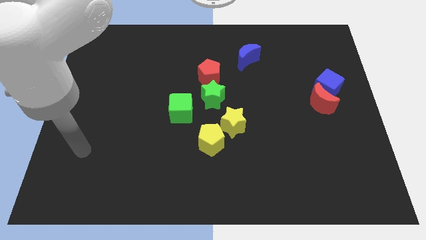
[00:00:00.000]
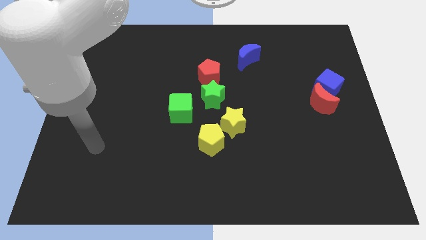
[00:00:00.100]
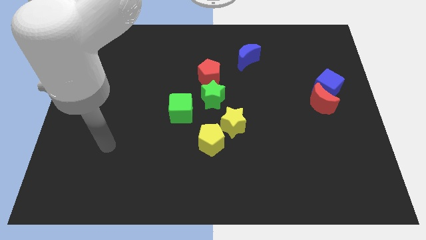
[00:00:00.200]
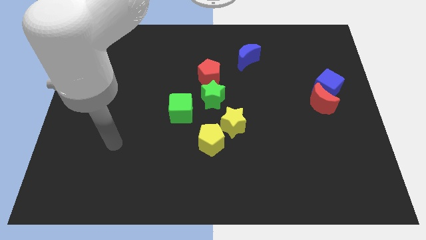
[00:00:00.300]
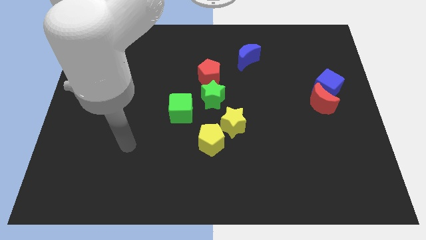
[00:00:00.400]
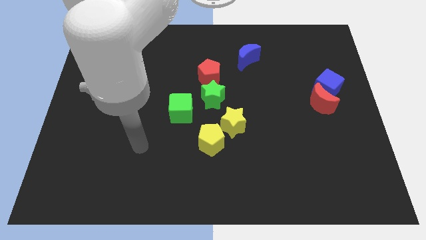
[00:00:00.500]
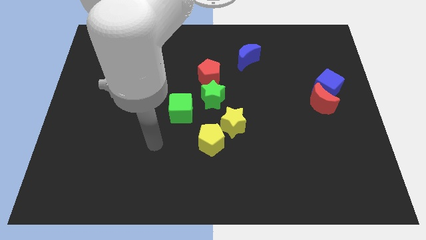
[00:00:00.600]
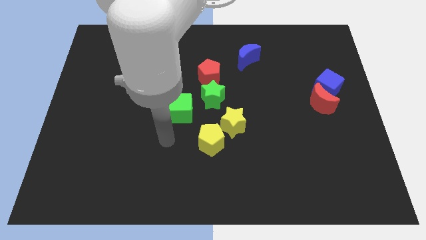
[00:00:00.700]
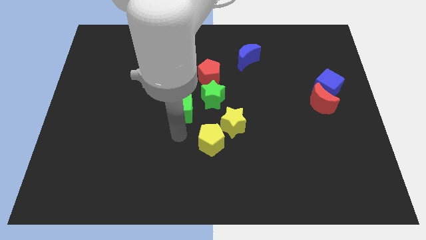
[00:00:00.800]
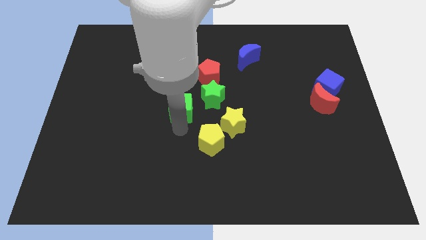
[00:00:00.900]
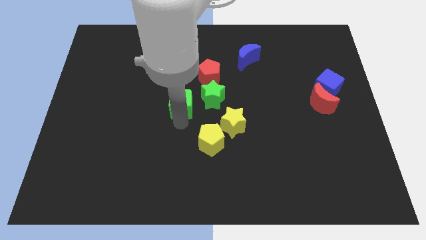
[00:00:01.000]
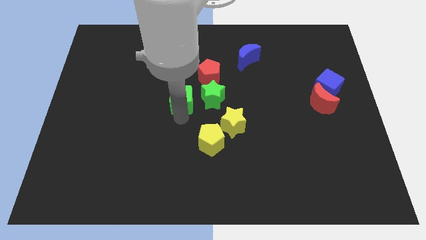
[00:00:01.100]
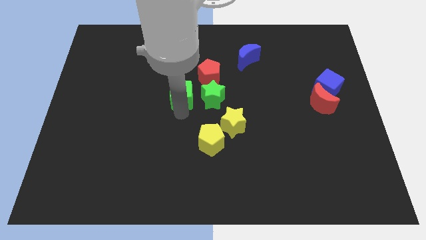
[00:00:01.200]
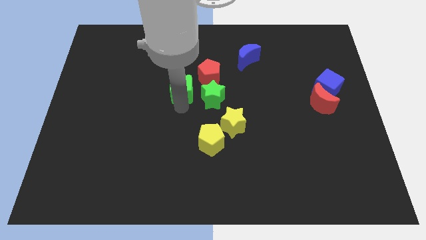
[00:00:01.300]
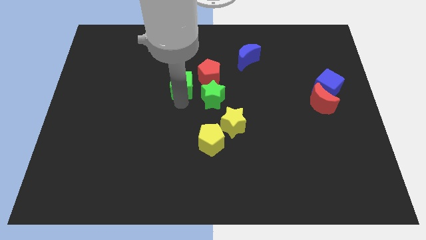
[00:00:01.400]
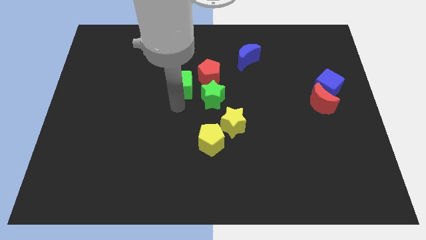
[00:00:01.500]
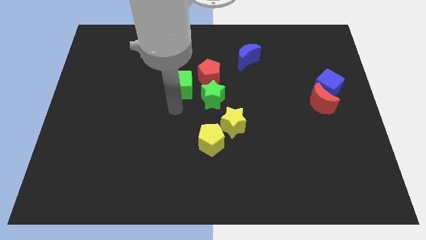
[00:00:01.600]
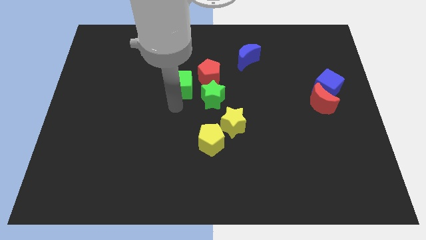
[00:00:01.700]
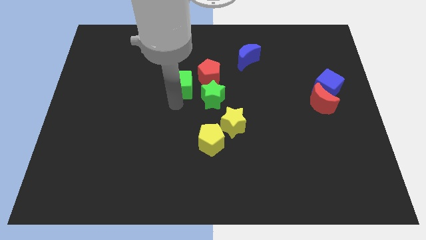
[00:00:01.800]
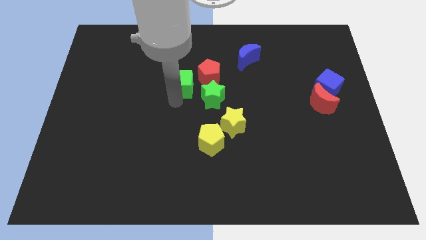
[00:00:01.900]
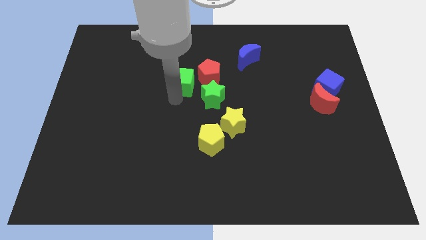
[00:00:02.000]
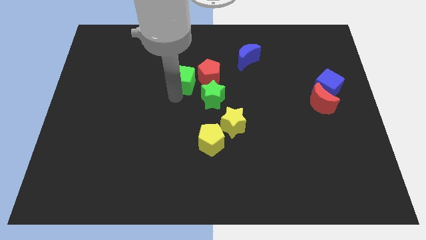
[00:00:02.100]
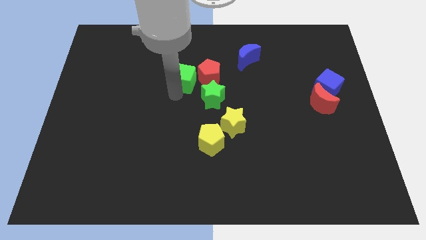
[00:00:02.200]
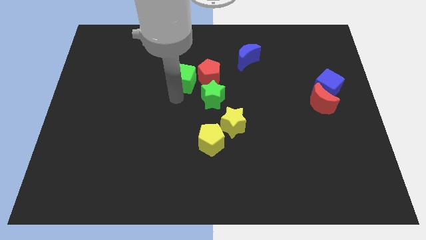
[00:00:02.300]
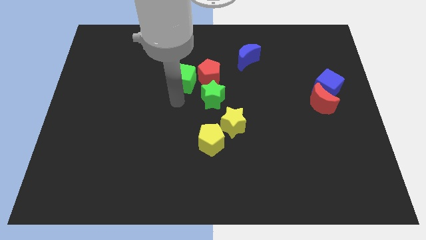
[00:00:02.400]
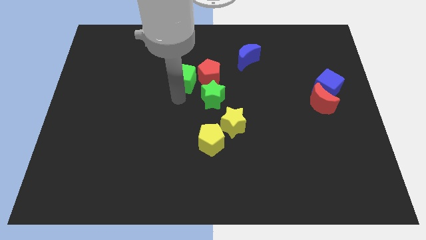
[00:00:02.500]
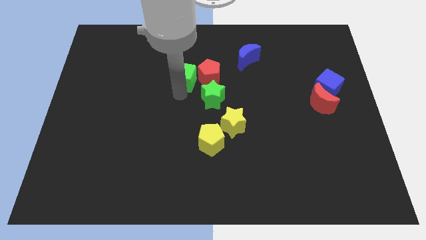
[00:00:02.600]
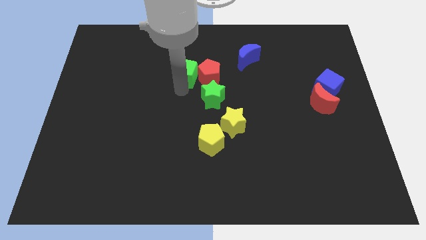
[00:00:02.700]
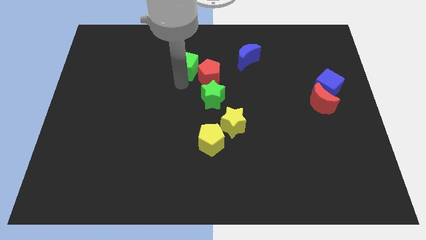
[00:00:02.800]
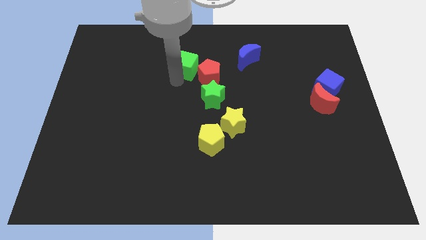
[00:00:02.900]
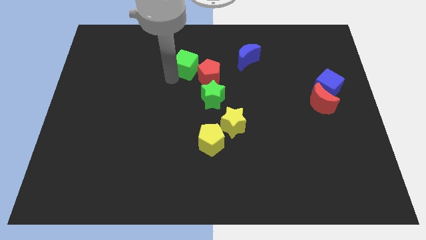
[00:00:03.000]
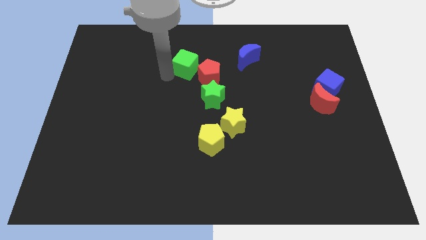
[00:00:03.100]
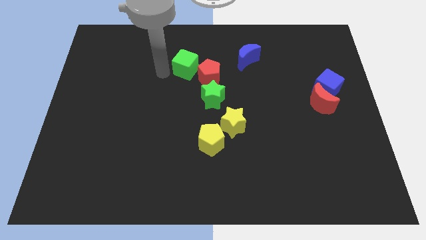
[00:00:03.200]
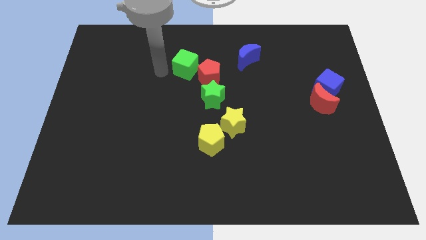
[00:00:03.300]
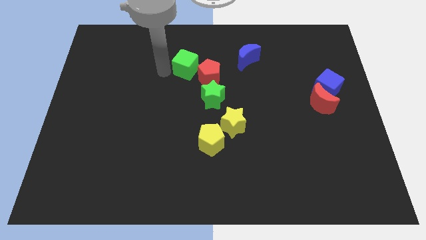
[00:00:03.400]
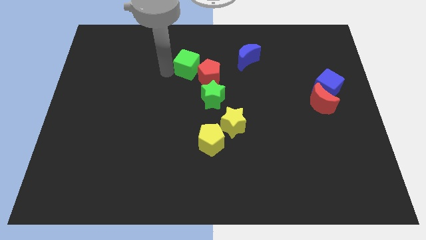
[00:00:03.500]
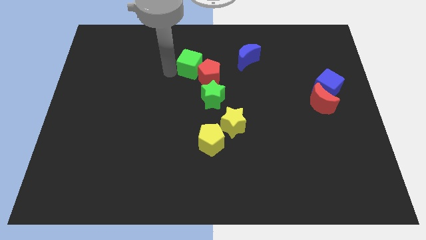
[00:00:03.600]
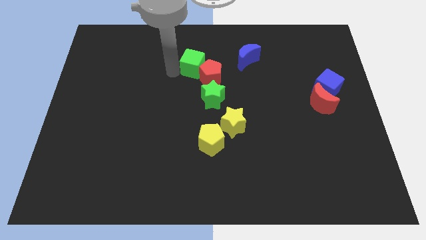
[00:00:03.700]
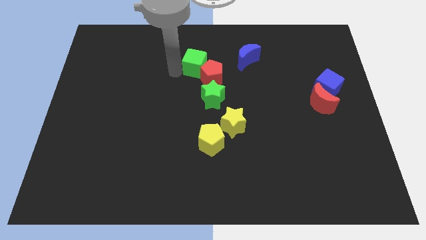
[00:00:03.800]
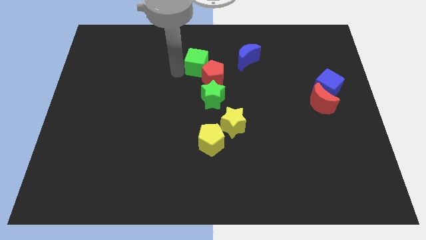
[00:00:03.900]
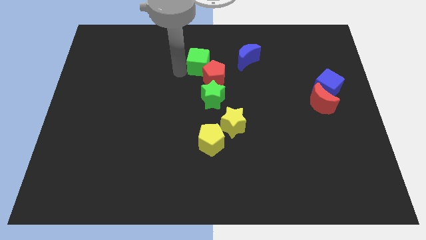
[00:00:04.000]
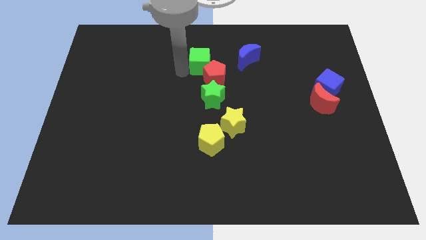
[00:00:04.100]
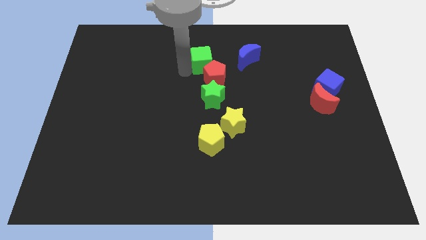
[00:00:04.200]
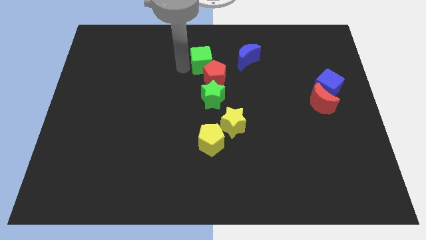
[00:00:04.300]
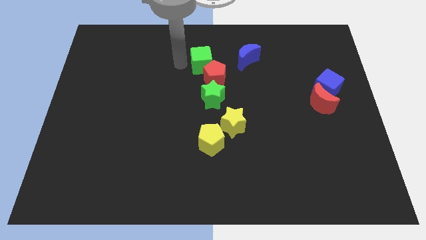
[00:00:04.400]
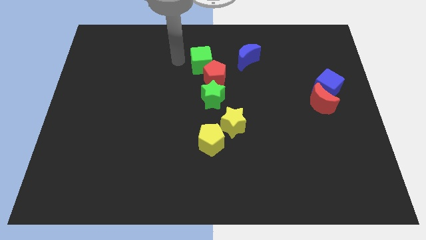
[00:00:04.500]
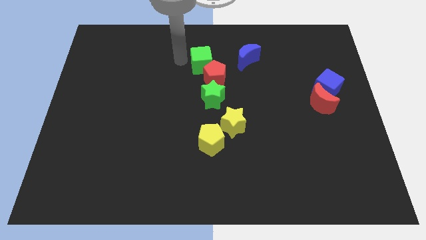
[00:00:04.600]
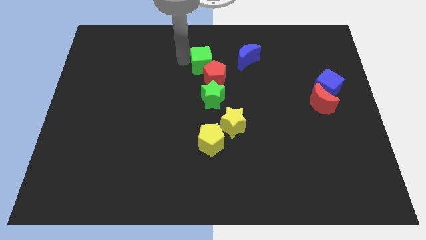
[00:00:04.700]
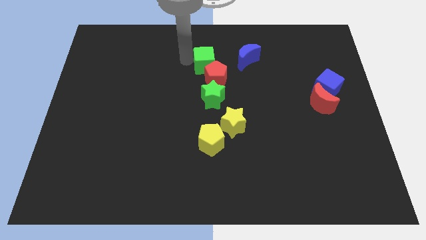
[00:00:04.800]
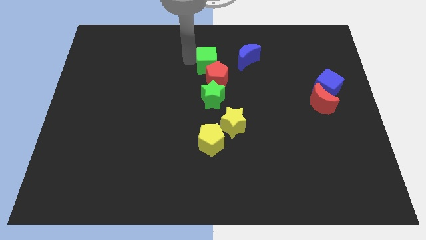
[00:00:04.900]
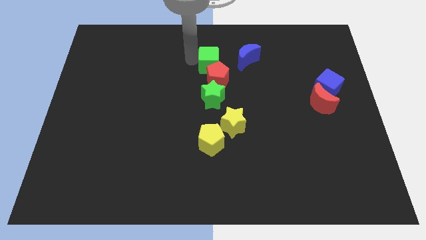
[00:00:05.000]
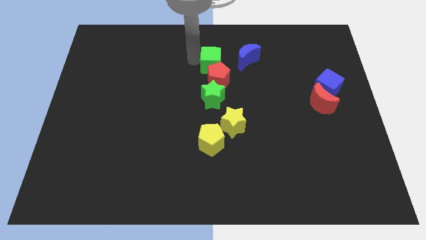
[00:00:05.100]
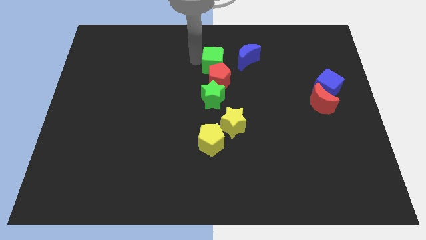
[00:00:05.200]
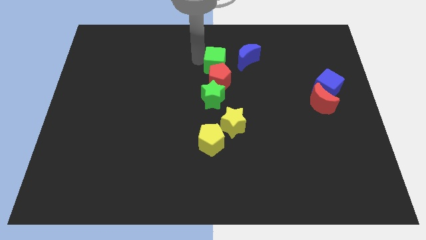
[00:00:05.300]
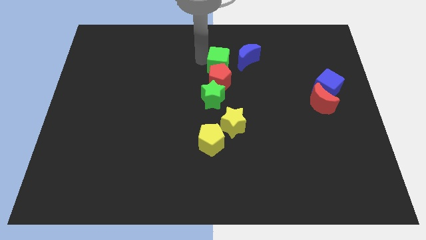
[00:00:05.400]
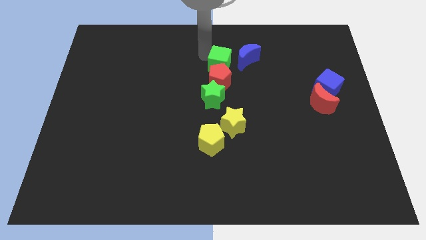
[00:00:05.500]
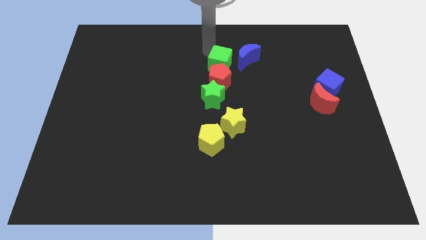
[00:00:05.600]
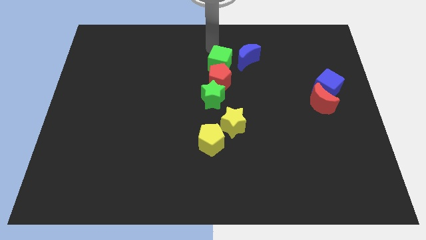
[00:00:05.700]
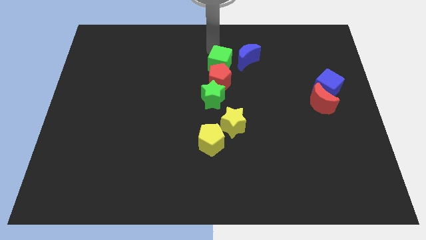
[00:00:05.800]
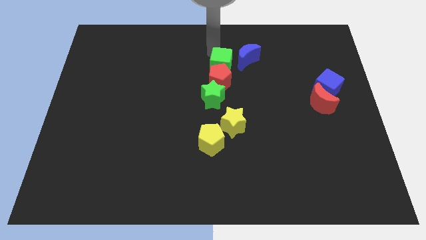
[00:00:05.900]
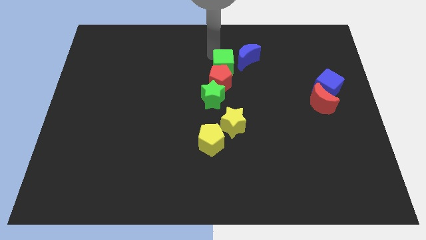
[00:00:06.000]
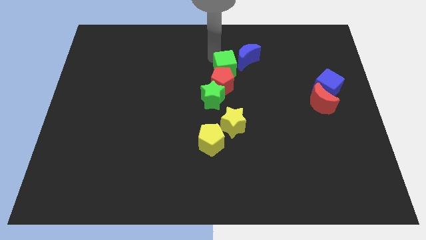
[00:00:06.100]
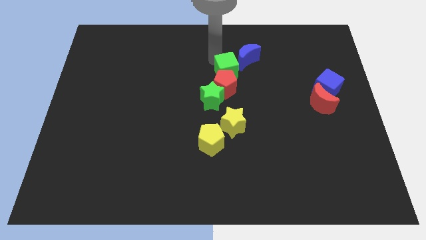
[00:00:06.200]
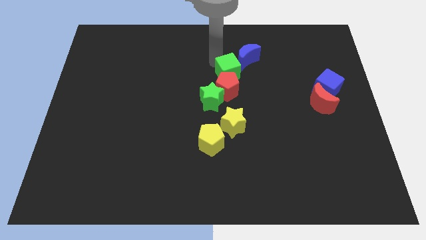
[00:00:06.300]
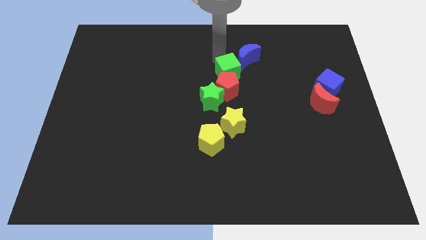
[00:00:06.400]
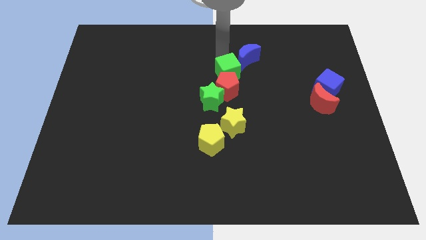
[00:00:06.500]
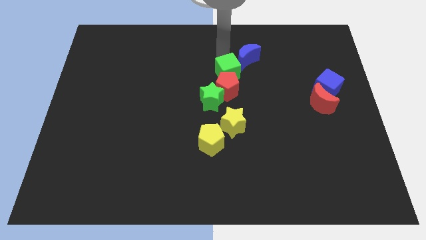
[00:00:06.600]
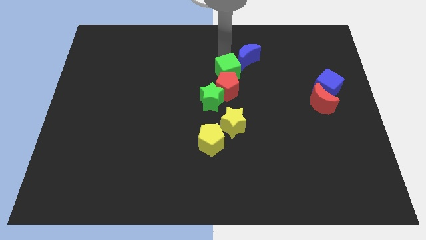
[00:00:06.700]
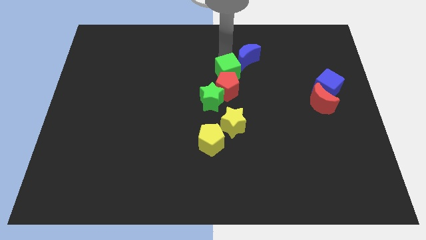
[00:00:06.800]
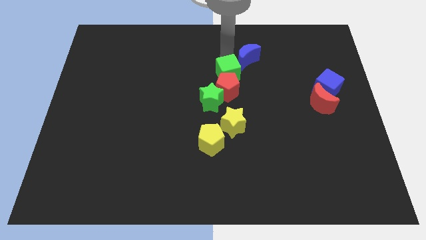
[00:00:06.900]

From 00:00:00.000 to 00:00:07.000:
slide the green cube to the top side of the yellow star
